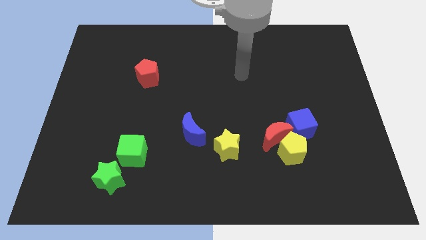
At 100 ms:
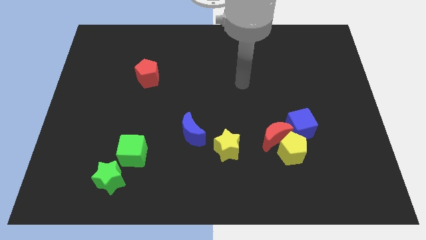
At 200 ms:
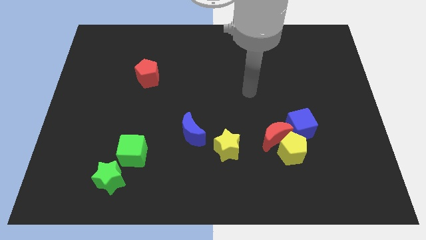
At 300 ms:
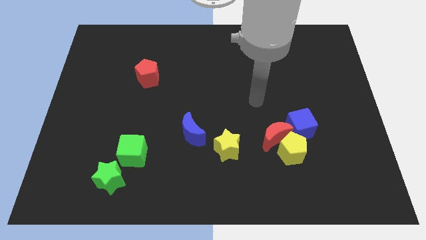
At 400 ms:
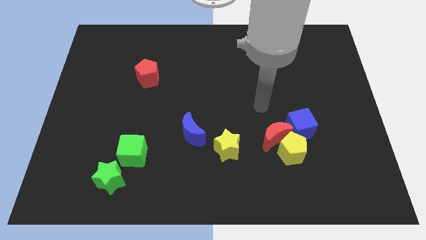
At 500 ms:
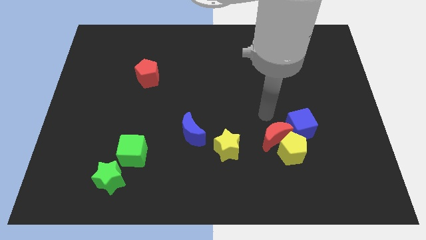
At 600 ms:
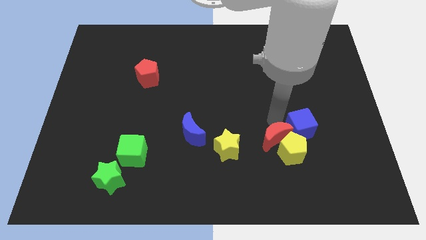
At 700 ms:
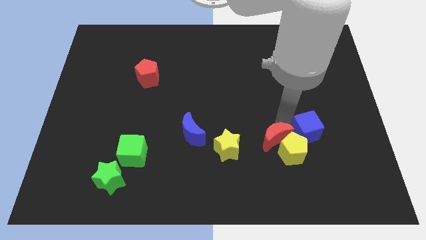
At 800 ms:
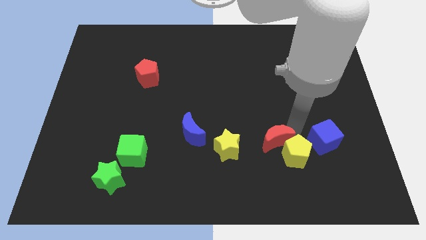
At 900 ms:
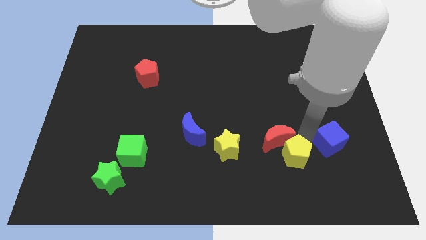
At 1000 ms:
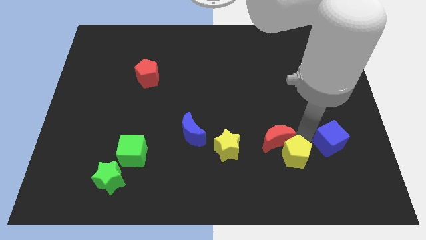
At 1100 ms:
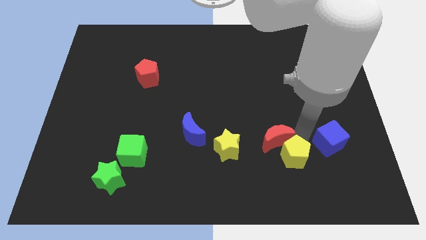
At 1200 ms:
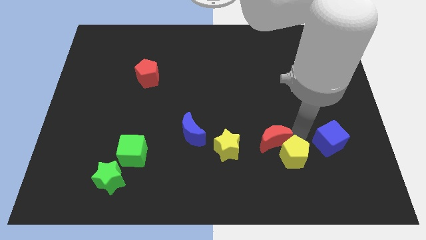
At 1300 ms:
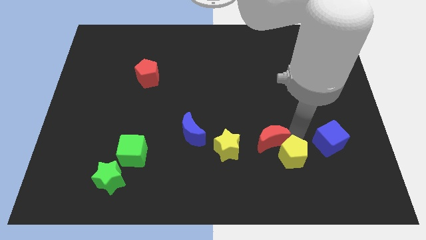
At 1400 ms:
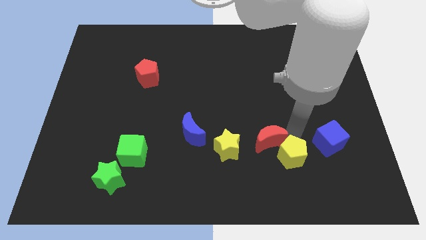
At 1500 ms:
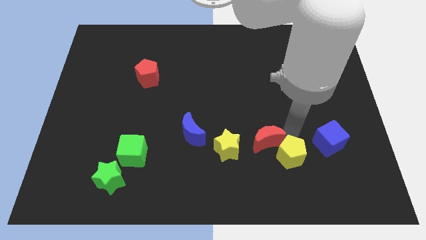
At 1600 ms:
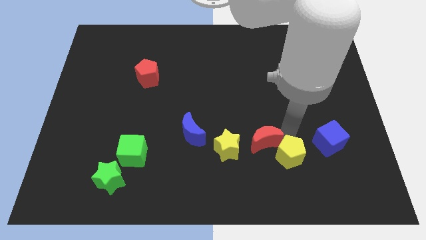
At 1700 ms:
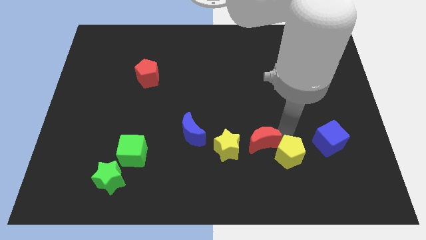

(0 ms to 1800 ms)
pull the red moon apart from the yellow pentagon and blue cube

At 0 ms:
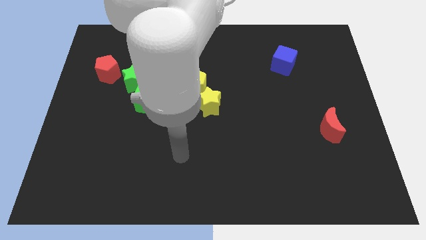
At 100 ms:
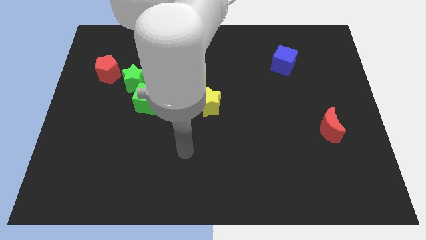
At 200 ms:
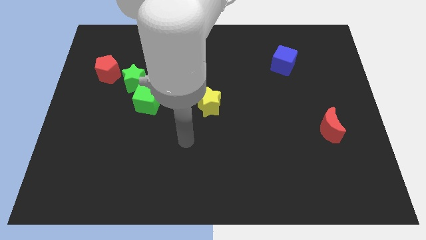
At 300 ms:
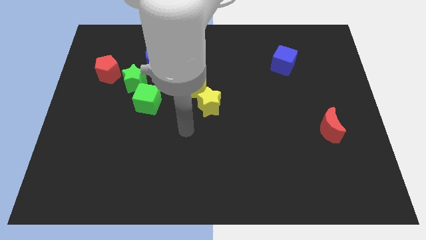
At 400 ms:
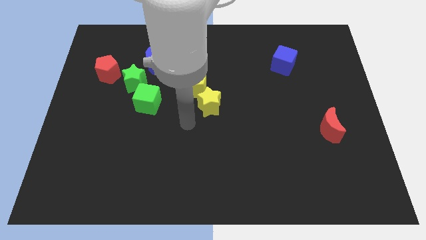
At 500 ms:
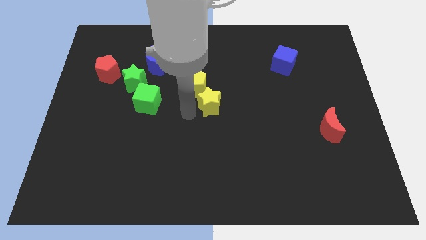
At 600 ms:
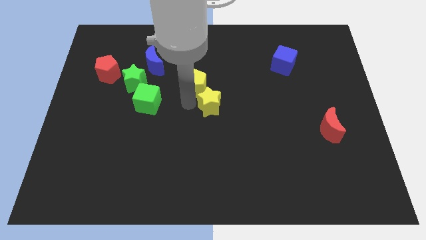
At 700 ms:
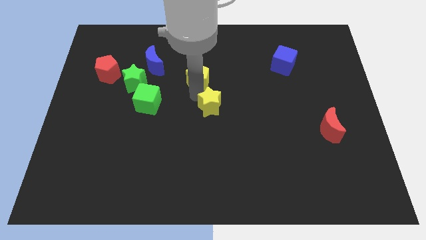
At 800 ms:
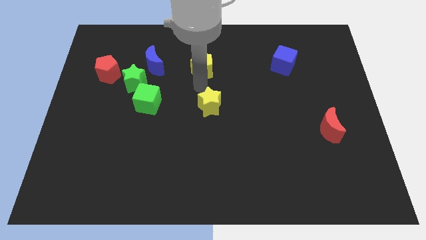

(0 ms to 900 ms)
pull the yellow star apart from the yellow pentagon

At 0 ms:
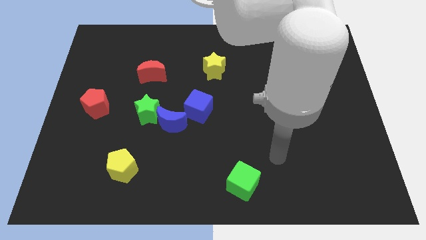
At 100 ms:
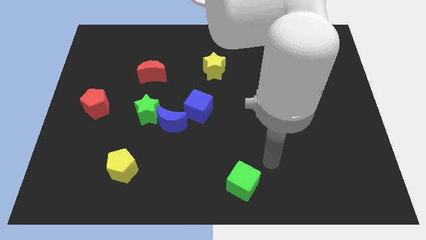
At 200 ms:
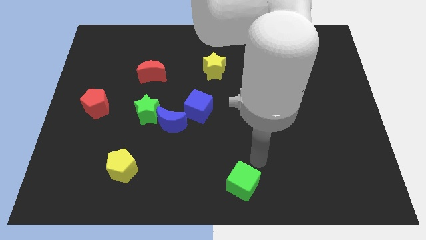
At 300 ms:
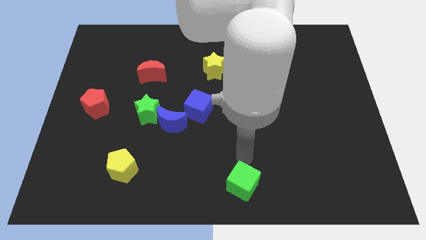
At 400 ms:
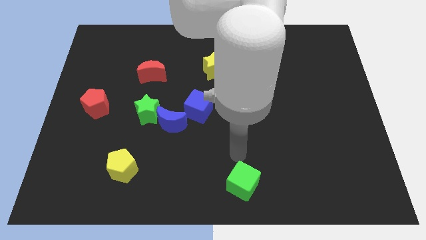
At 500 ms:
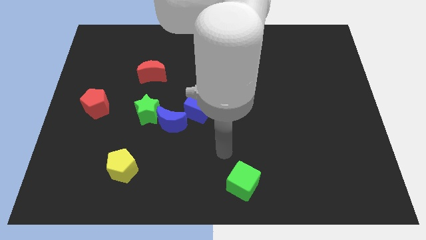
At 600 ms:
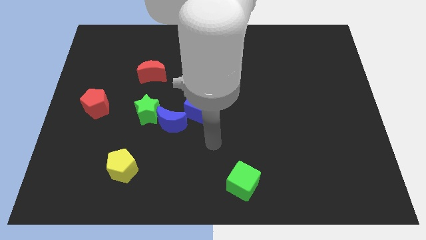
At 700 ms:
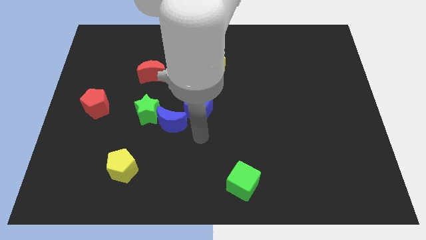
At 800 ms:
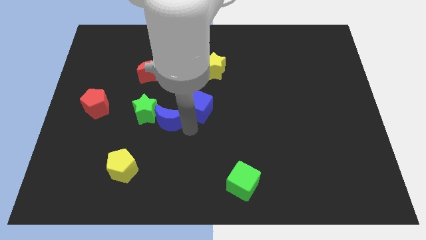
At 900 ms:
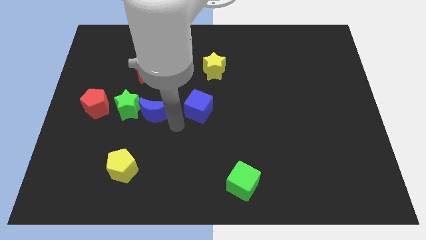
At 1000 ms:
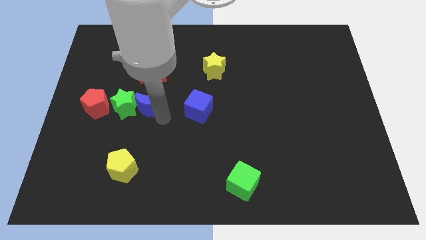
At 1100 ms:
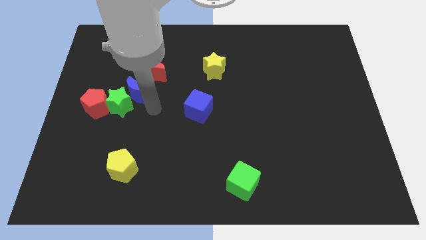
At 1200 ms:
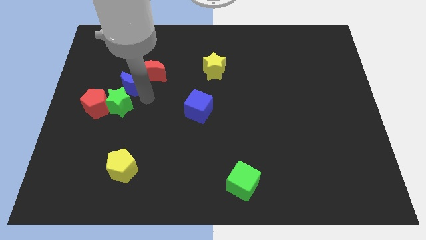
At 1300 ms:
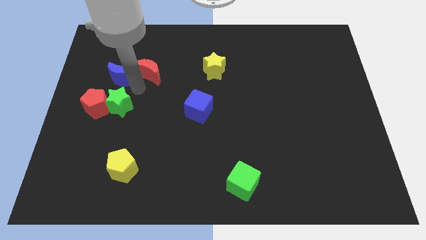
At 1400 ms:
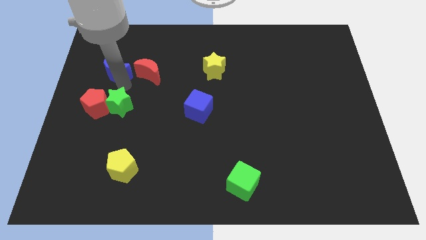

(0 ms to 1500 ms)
move the green star away from the blue moon

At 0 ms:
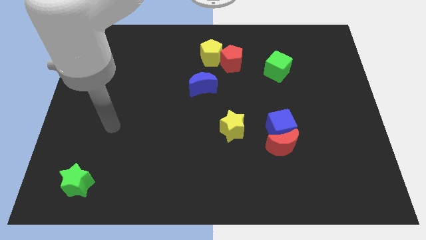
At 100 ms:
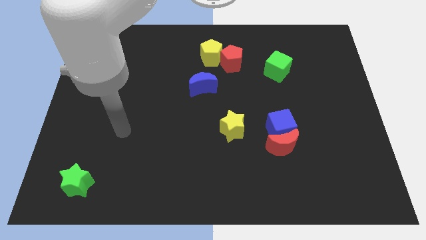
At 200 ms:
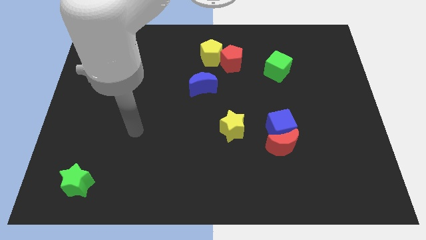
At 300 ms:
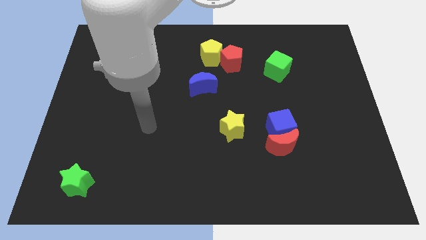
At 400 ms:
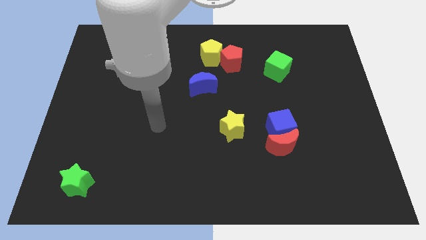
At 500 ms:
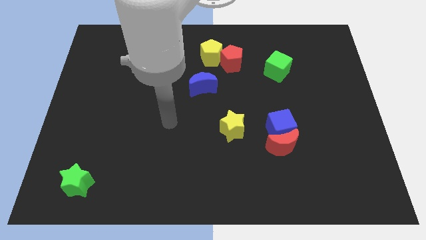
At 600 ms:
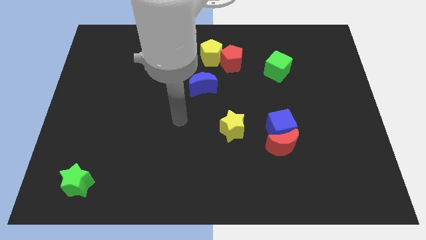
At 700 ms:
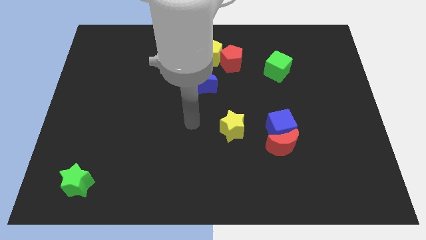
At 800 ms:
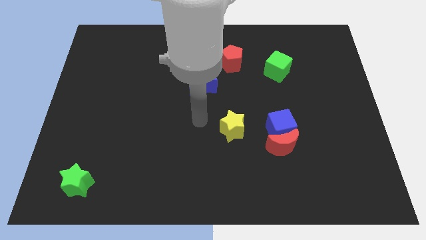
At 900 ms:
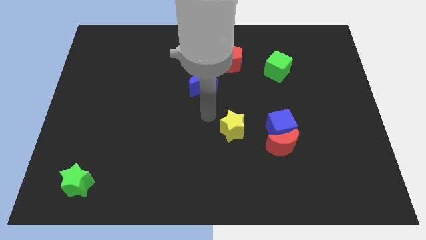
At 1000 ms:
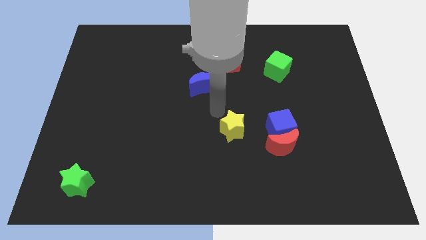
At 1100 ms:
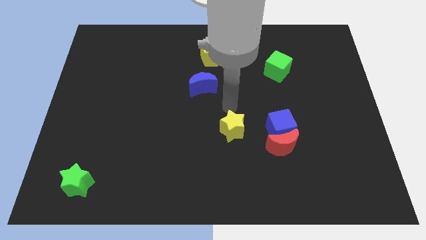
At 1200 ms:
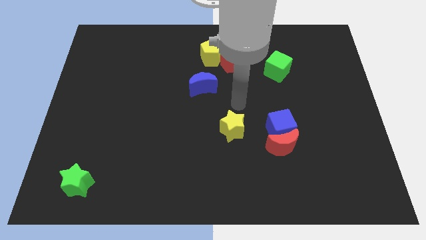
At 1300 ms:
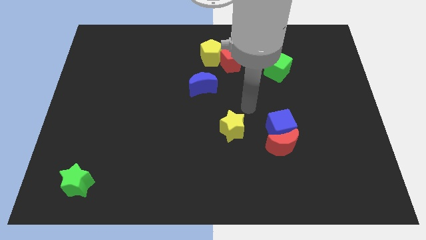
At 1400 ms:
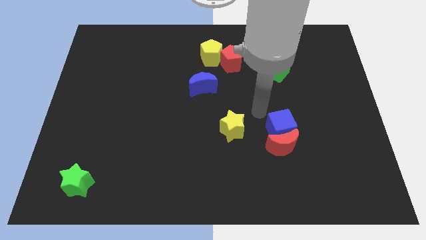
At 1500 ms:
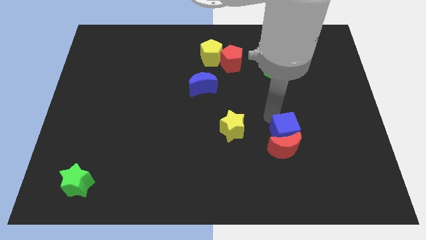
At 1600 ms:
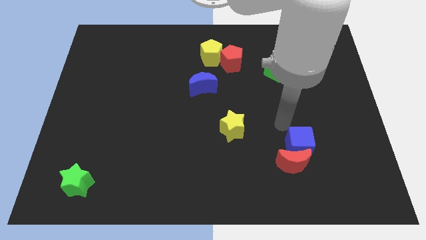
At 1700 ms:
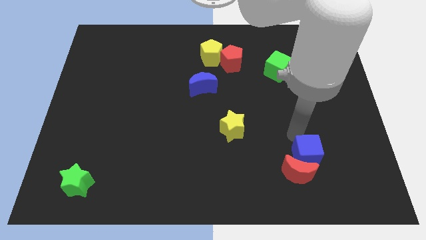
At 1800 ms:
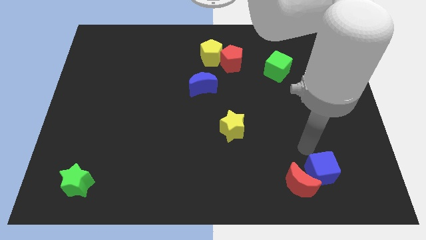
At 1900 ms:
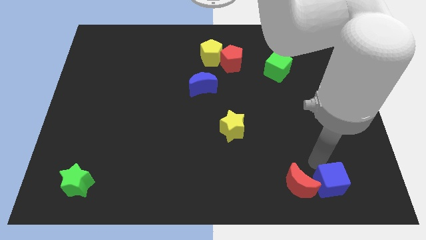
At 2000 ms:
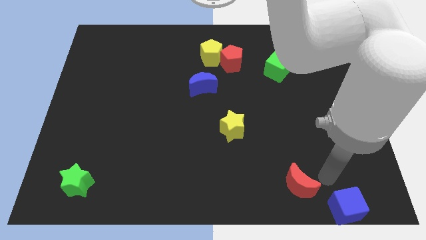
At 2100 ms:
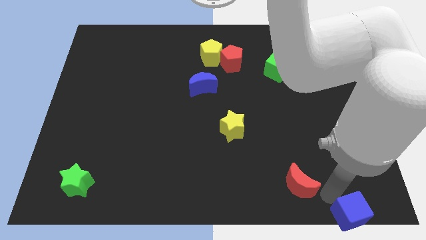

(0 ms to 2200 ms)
separate the red moon from the blue cube

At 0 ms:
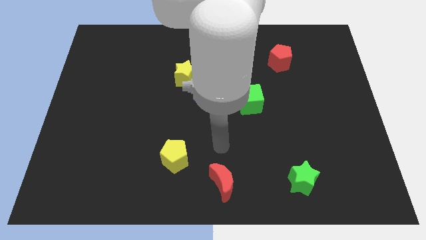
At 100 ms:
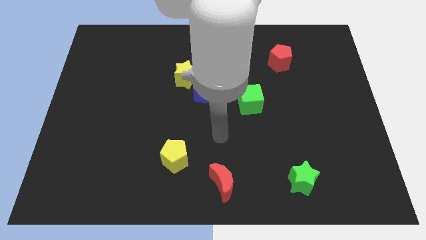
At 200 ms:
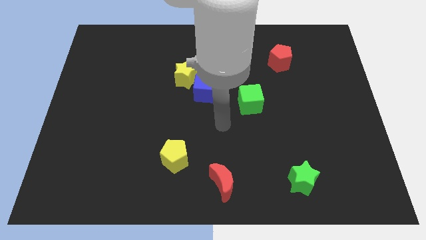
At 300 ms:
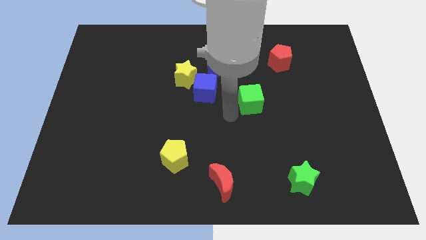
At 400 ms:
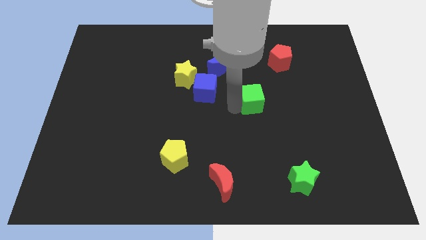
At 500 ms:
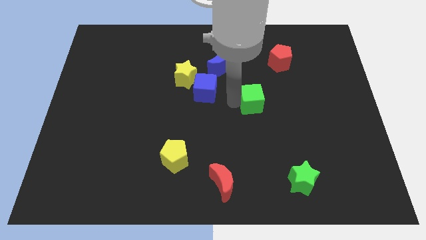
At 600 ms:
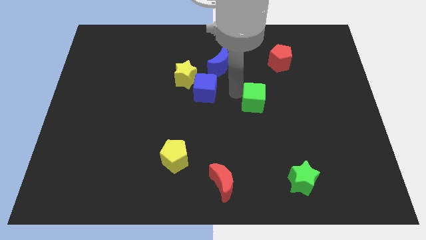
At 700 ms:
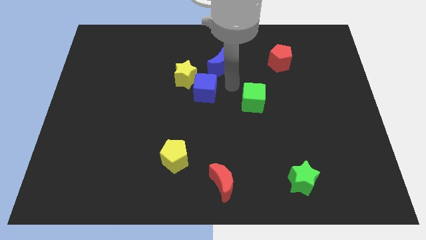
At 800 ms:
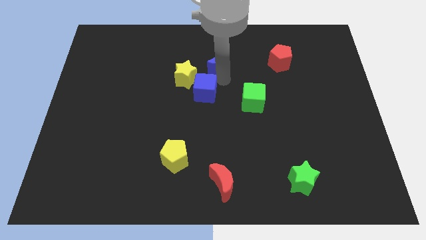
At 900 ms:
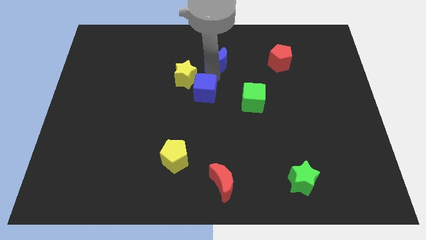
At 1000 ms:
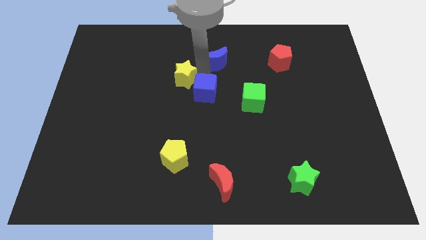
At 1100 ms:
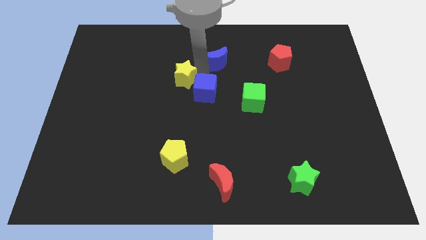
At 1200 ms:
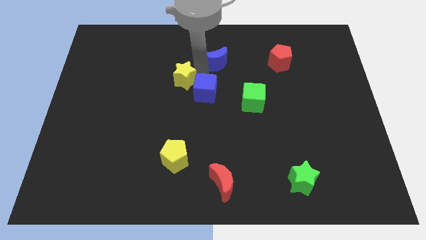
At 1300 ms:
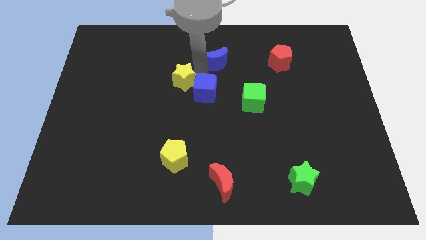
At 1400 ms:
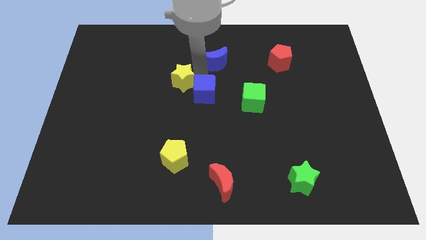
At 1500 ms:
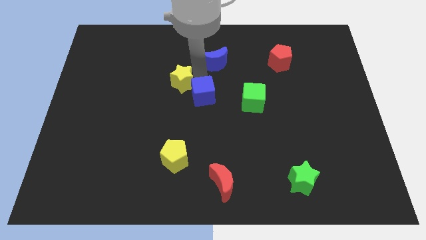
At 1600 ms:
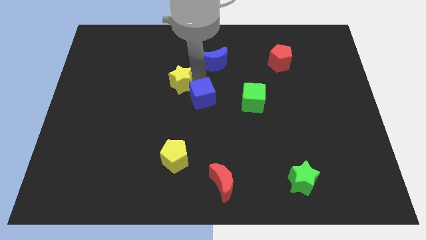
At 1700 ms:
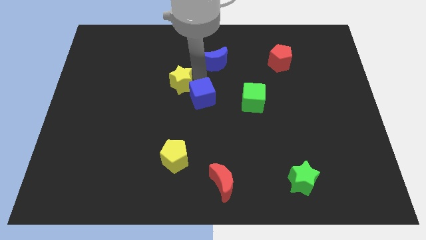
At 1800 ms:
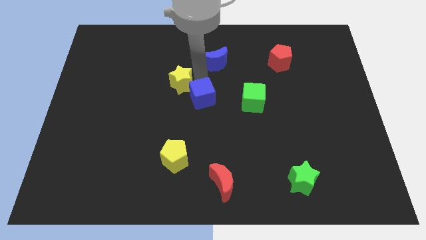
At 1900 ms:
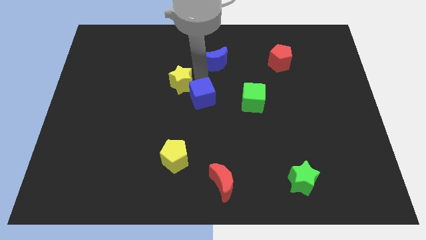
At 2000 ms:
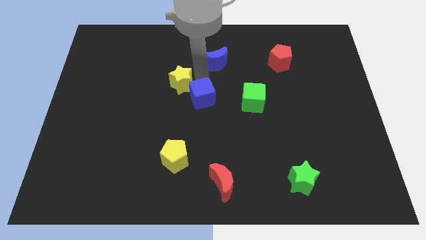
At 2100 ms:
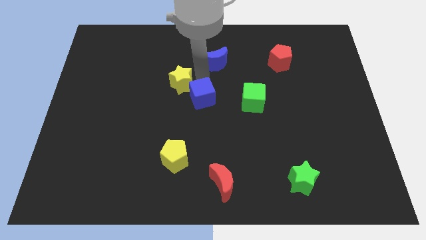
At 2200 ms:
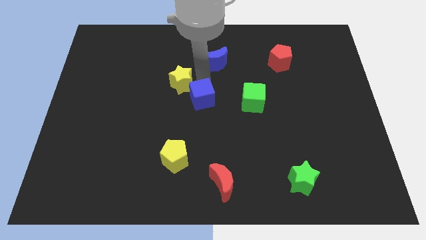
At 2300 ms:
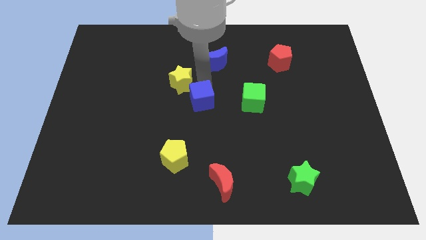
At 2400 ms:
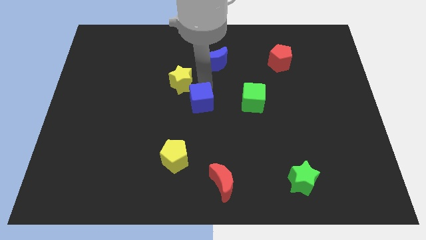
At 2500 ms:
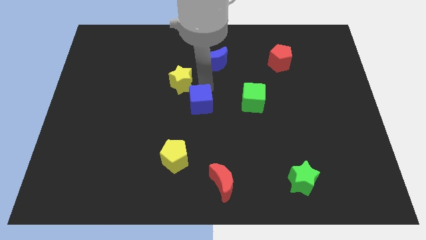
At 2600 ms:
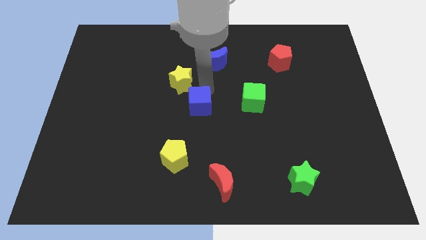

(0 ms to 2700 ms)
move the blue cube away from the yellow star and blue moon
